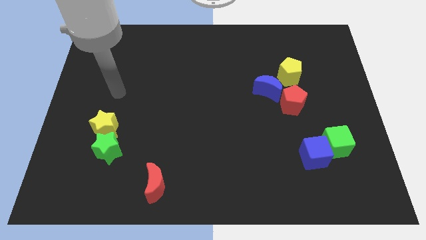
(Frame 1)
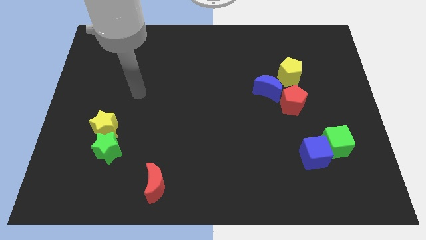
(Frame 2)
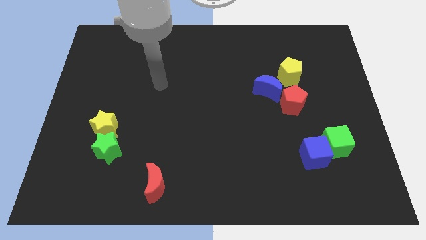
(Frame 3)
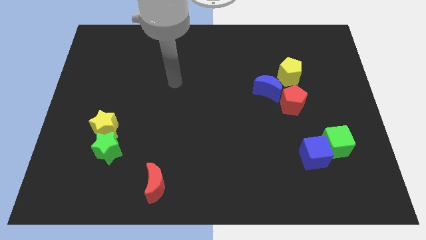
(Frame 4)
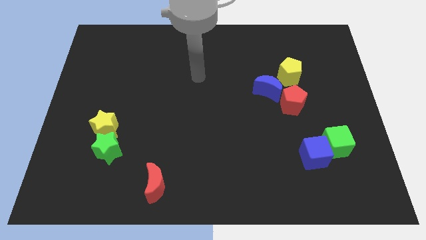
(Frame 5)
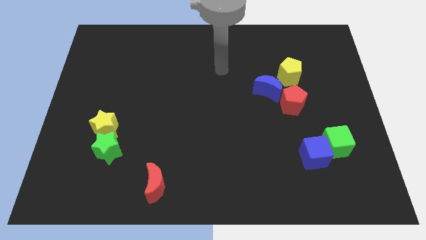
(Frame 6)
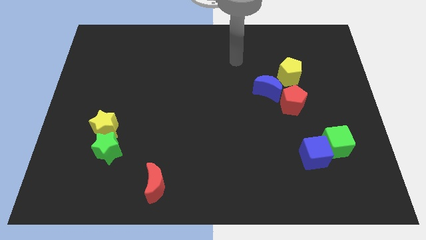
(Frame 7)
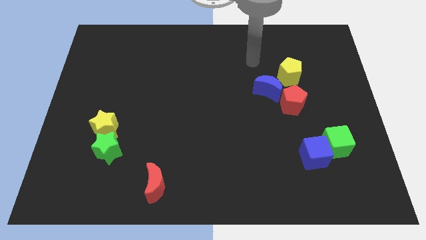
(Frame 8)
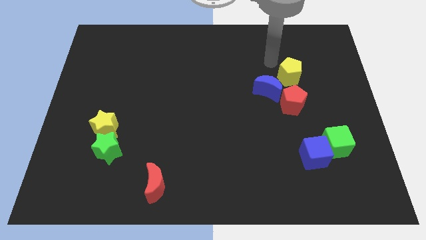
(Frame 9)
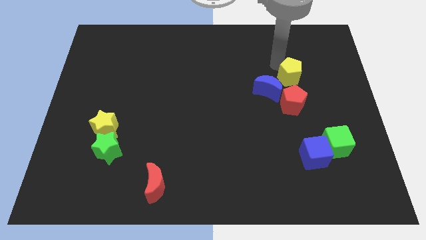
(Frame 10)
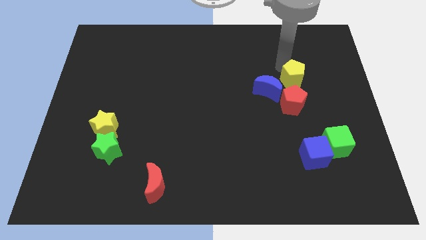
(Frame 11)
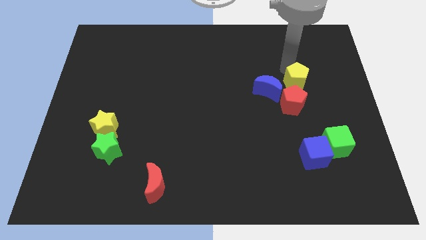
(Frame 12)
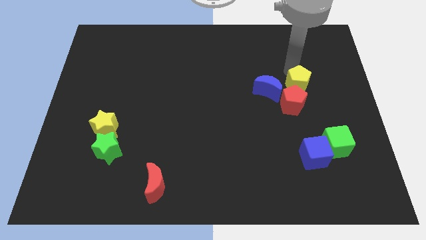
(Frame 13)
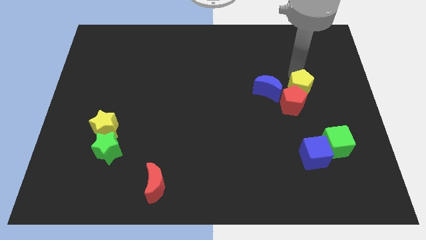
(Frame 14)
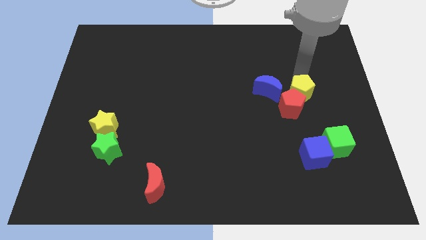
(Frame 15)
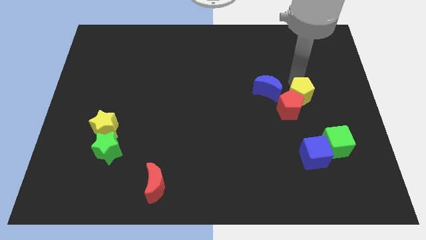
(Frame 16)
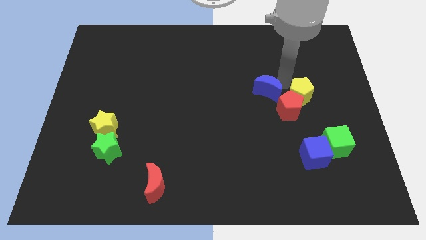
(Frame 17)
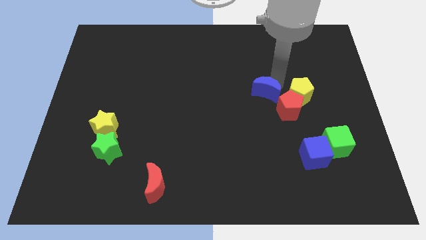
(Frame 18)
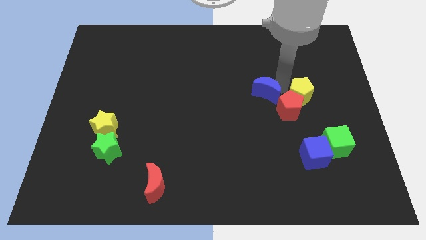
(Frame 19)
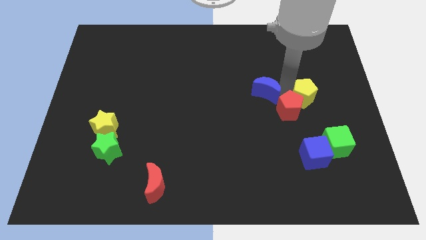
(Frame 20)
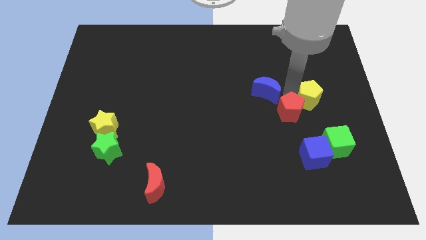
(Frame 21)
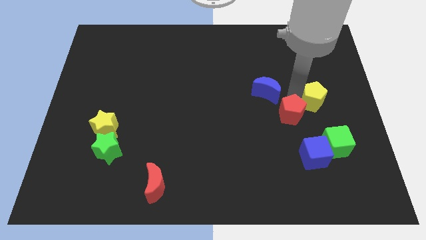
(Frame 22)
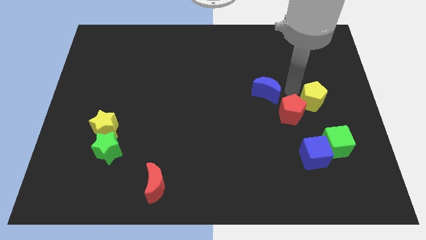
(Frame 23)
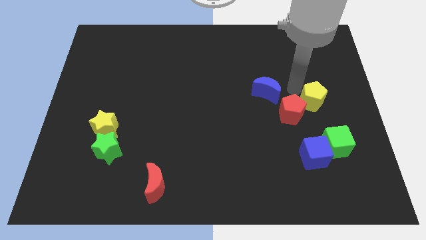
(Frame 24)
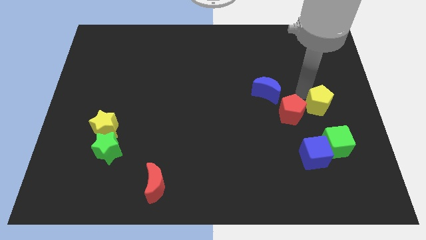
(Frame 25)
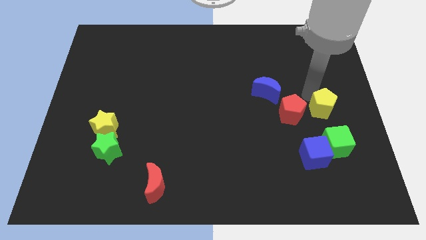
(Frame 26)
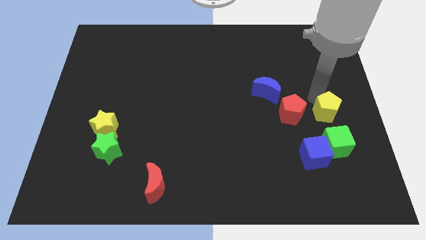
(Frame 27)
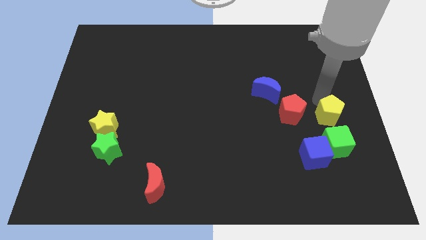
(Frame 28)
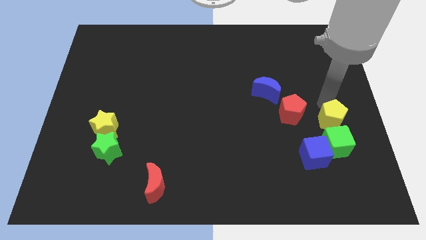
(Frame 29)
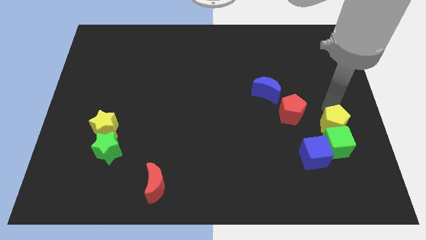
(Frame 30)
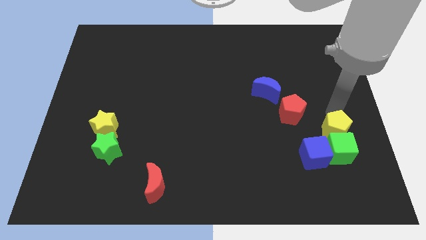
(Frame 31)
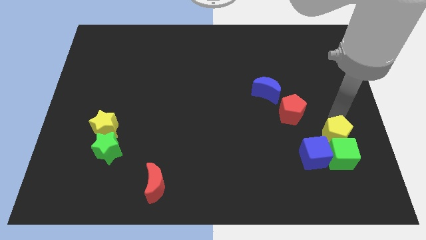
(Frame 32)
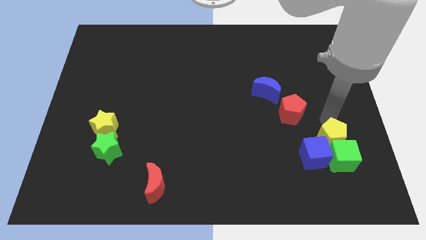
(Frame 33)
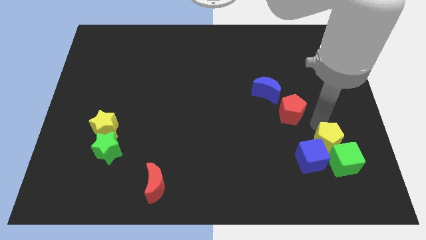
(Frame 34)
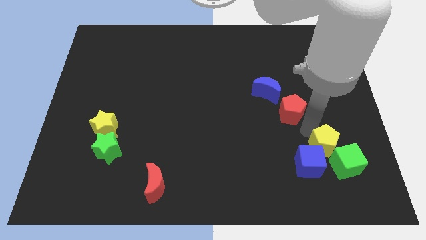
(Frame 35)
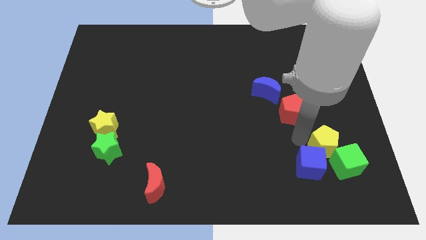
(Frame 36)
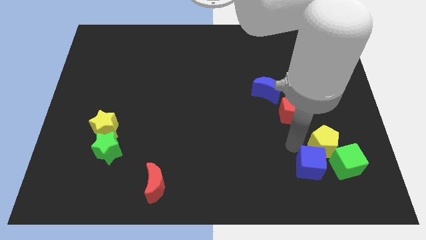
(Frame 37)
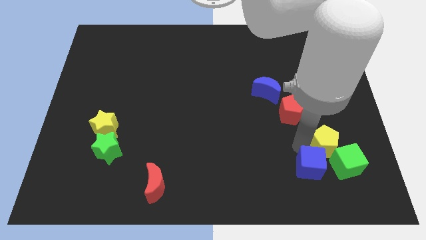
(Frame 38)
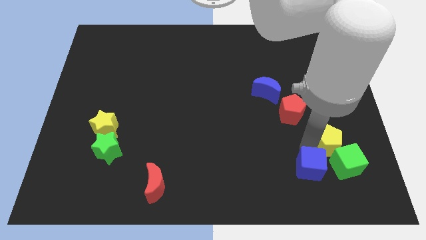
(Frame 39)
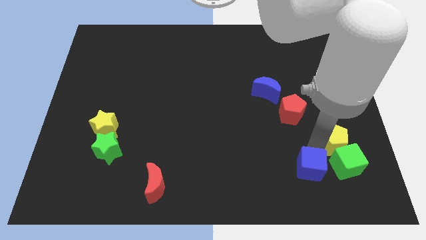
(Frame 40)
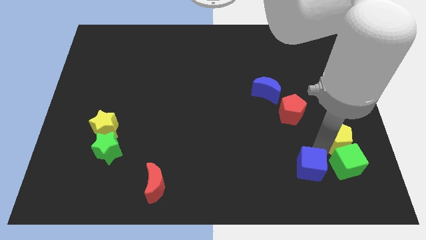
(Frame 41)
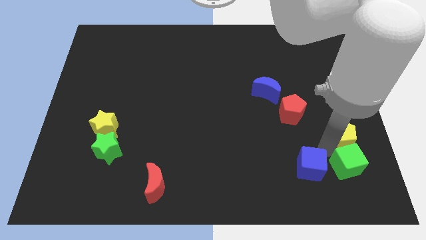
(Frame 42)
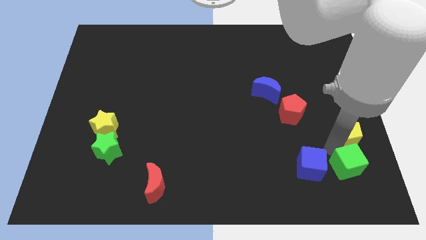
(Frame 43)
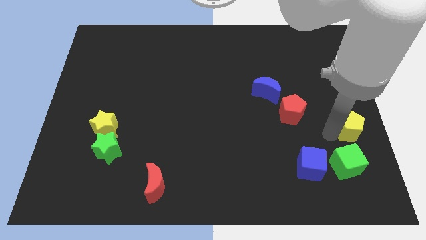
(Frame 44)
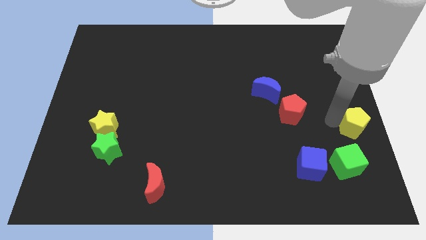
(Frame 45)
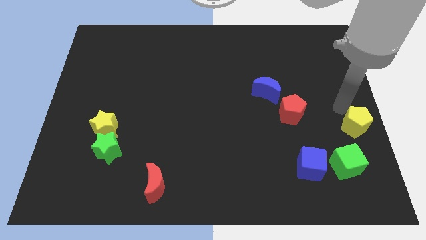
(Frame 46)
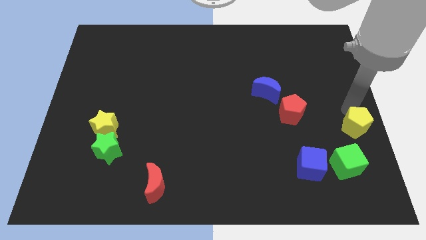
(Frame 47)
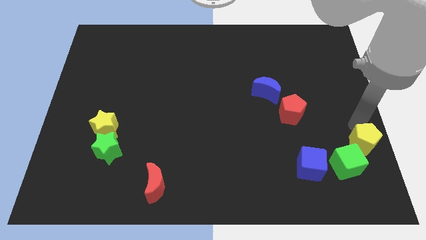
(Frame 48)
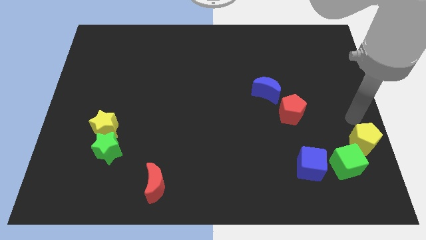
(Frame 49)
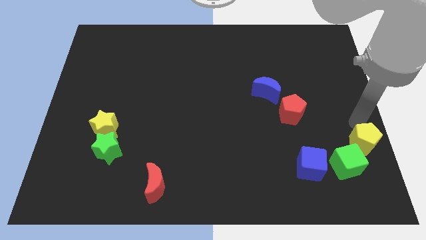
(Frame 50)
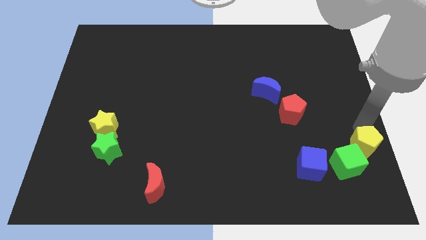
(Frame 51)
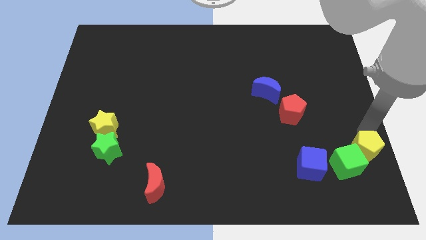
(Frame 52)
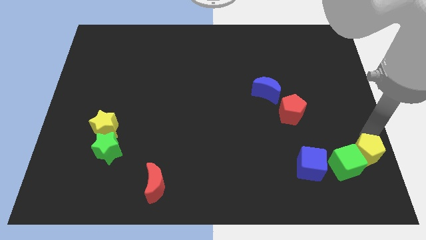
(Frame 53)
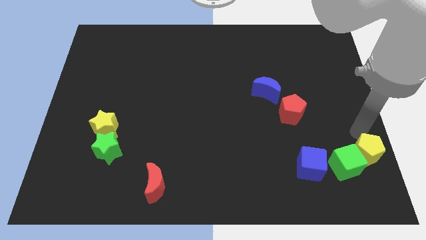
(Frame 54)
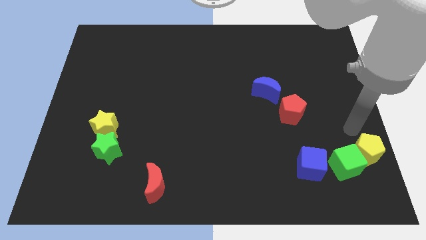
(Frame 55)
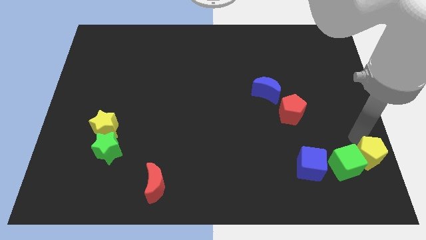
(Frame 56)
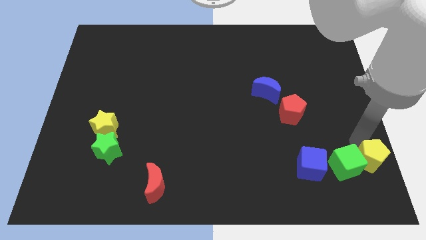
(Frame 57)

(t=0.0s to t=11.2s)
push the yellow pentagon to the lower right corner

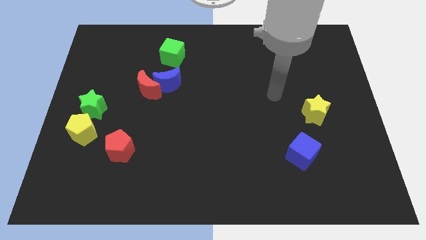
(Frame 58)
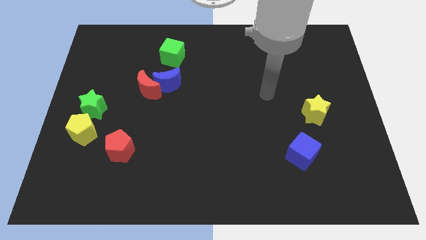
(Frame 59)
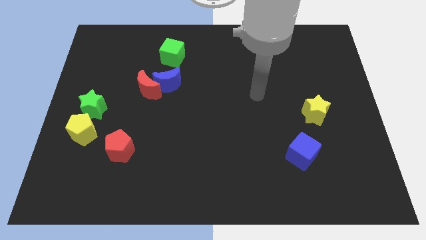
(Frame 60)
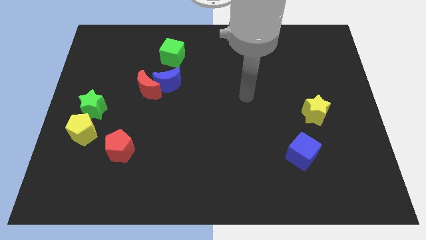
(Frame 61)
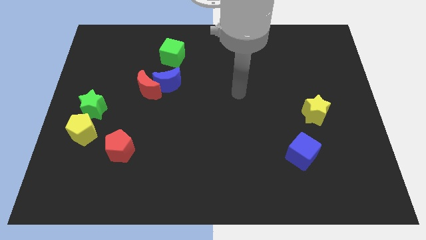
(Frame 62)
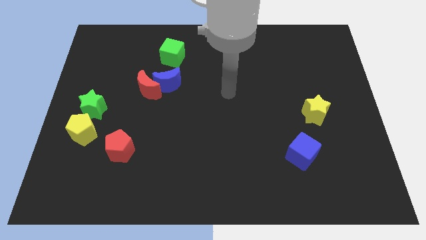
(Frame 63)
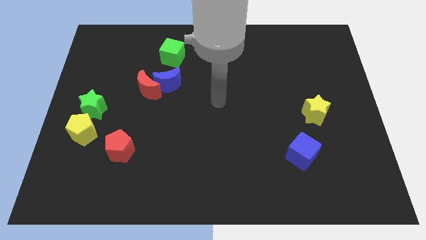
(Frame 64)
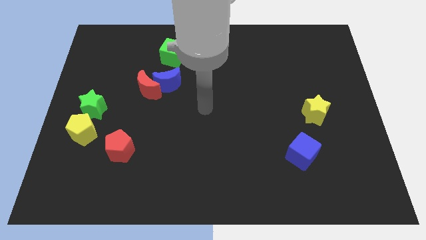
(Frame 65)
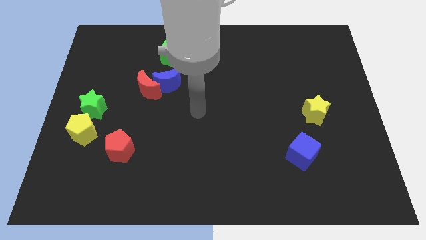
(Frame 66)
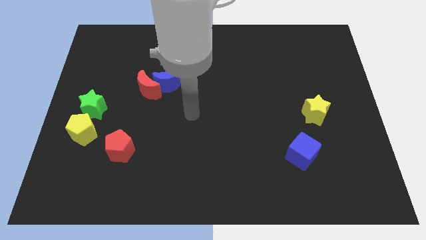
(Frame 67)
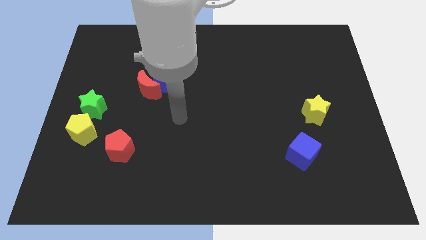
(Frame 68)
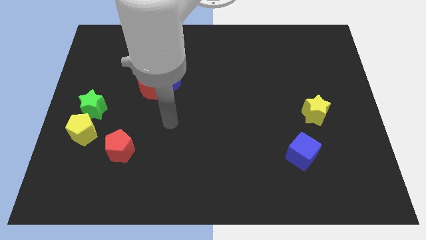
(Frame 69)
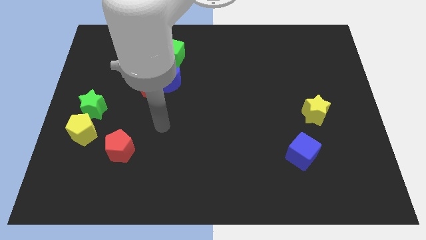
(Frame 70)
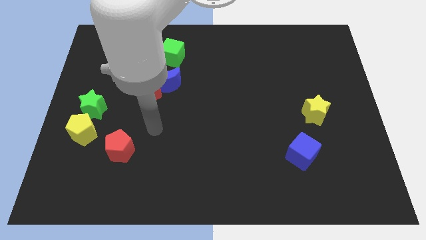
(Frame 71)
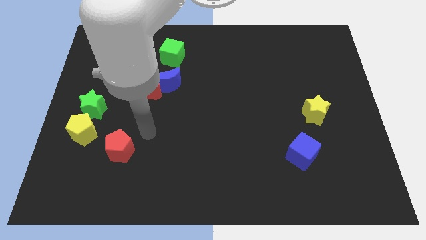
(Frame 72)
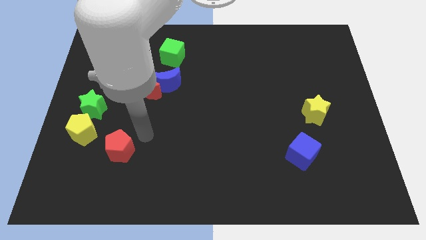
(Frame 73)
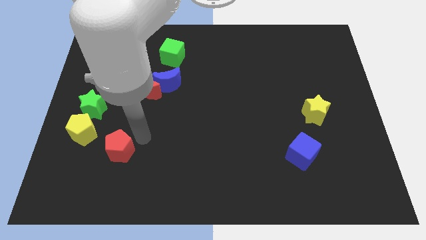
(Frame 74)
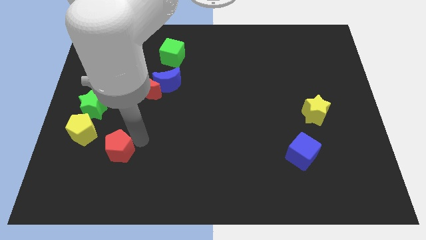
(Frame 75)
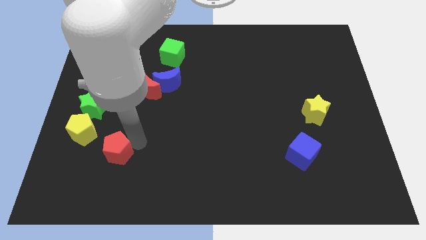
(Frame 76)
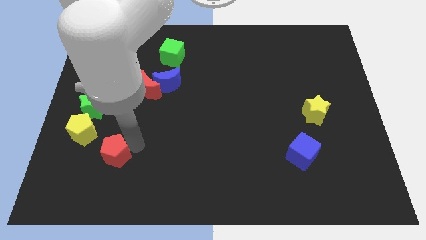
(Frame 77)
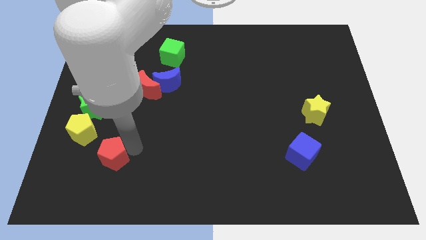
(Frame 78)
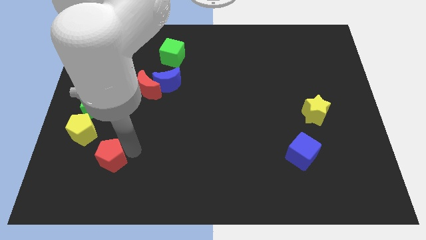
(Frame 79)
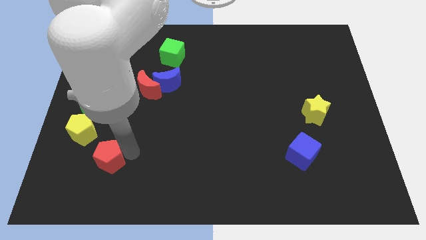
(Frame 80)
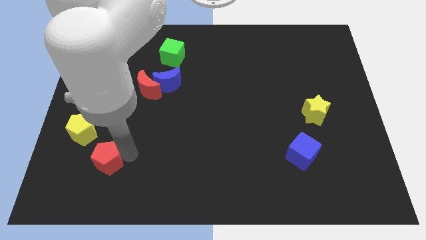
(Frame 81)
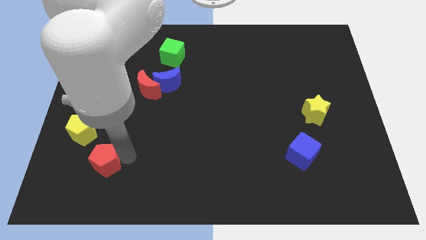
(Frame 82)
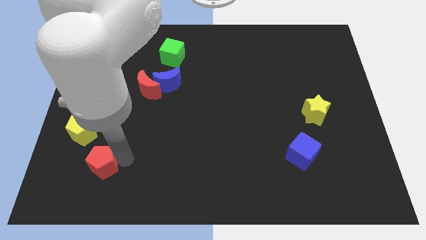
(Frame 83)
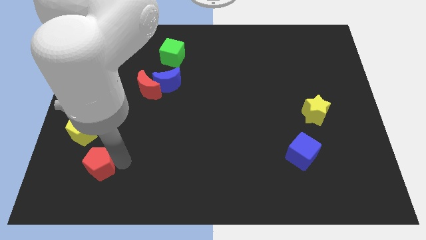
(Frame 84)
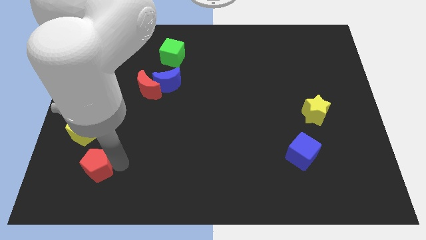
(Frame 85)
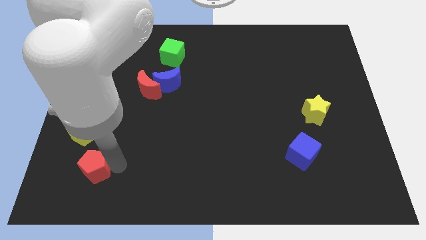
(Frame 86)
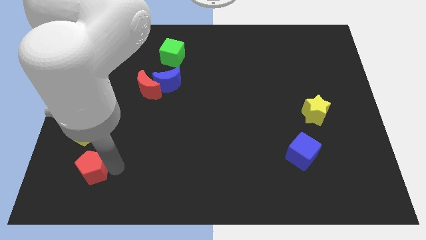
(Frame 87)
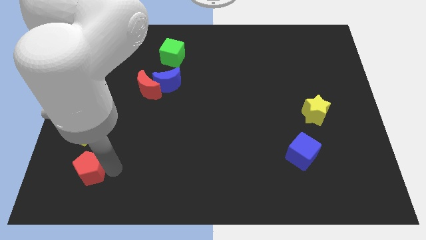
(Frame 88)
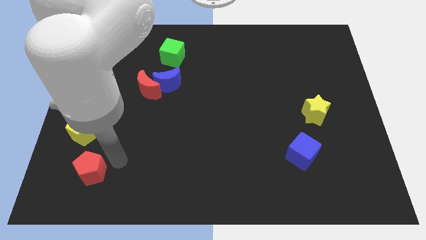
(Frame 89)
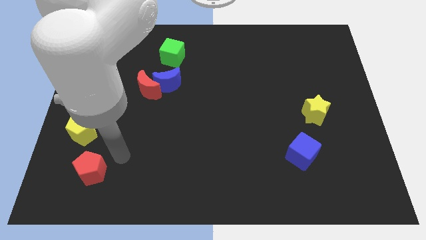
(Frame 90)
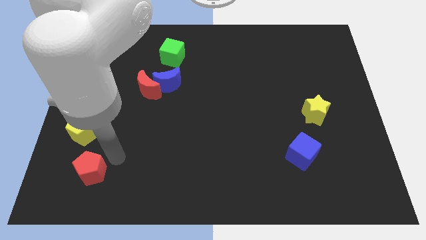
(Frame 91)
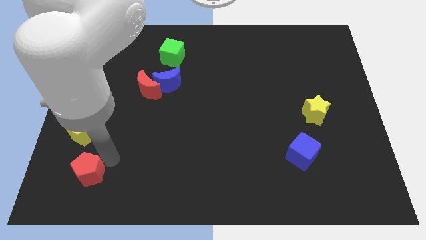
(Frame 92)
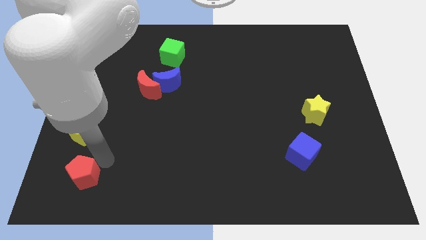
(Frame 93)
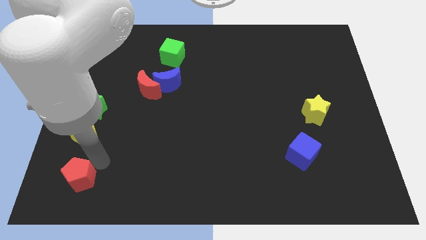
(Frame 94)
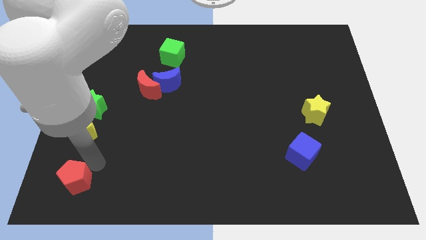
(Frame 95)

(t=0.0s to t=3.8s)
put the red pentagon to the bottom left
